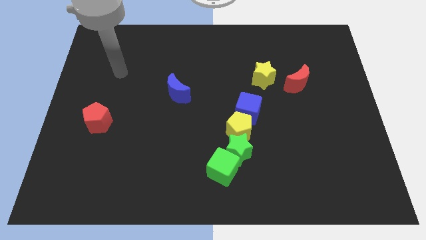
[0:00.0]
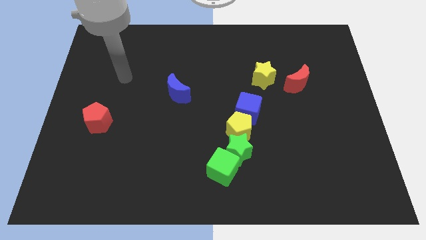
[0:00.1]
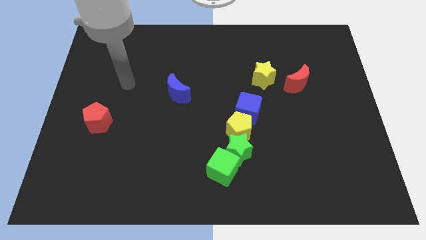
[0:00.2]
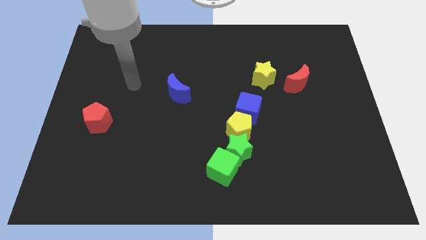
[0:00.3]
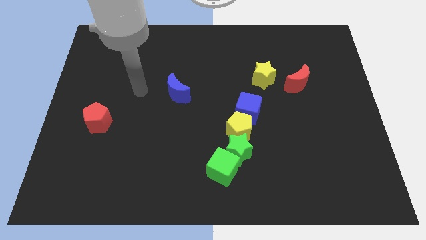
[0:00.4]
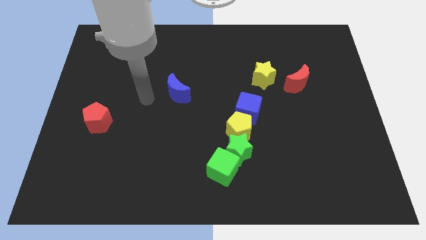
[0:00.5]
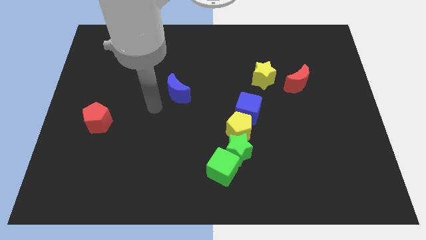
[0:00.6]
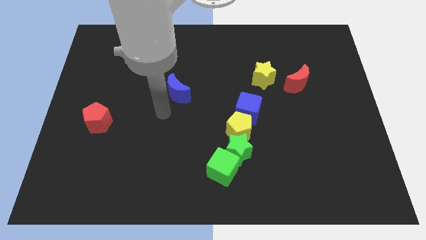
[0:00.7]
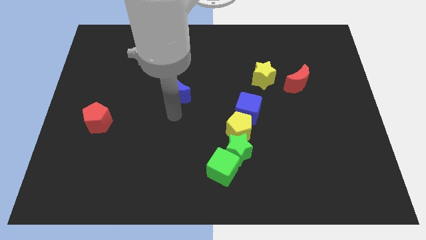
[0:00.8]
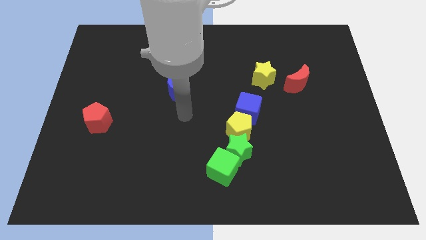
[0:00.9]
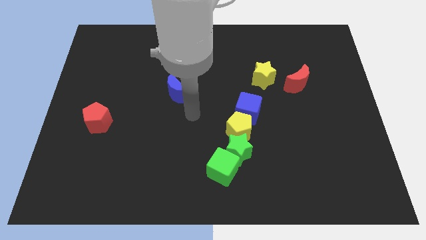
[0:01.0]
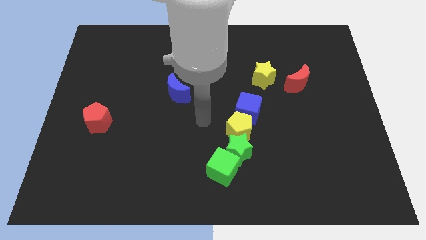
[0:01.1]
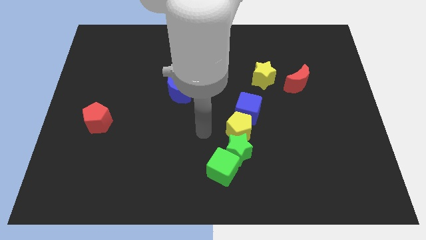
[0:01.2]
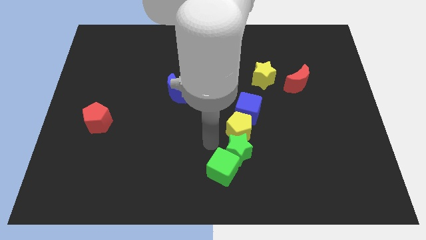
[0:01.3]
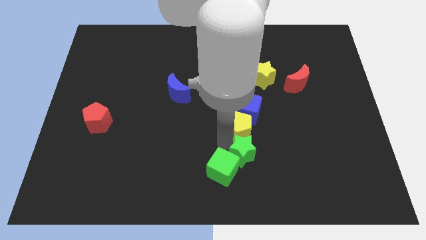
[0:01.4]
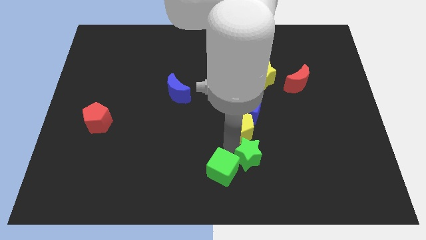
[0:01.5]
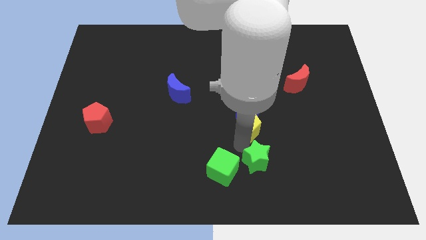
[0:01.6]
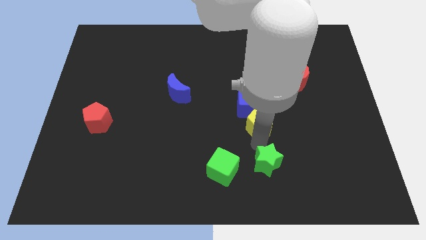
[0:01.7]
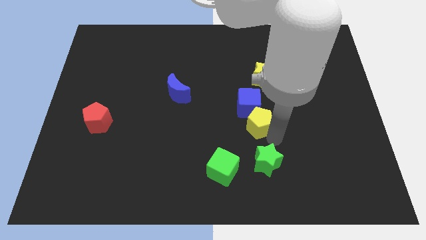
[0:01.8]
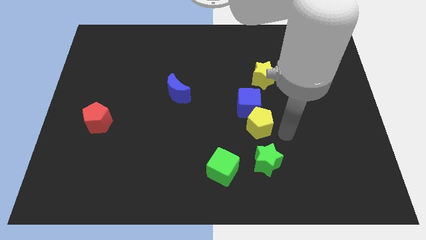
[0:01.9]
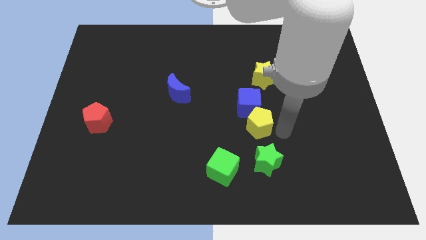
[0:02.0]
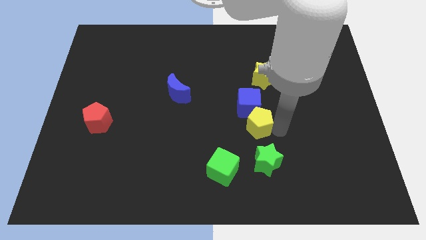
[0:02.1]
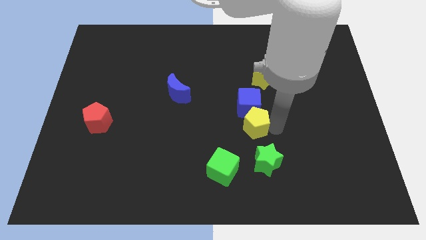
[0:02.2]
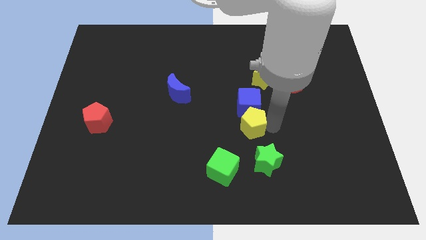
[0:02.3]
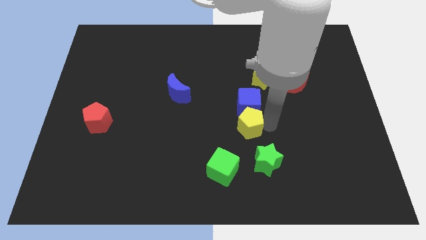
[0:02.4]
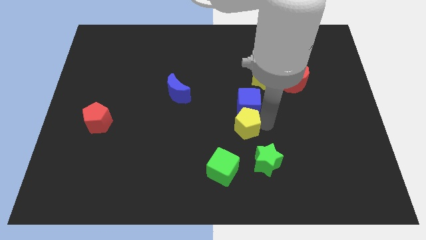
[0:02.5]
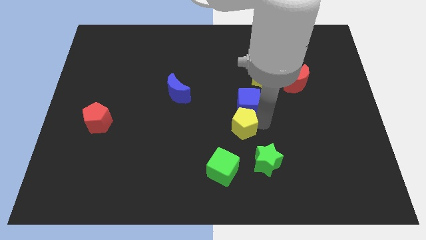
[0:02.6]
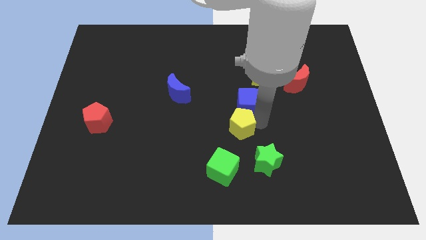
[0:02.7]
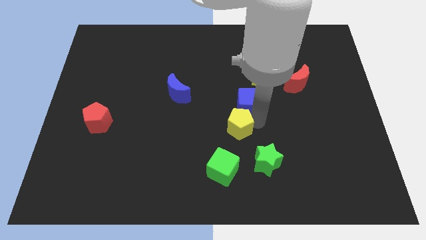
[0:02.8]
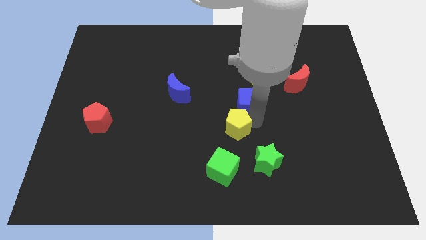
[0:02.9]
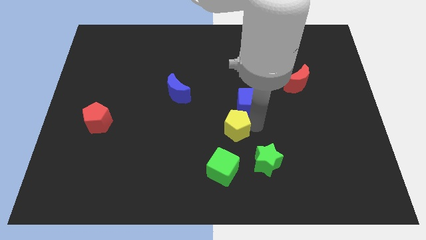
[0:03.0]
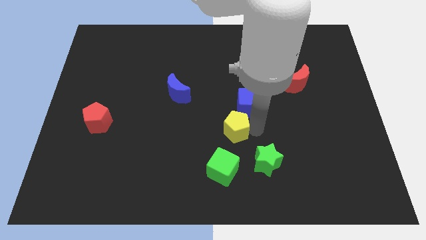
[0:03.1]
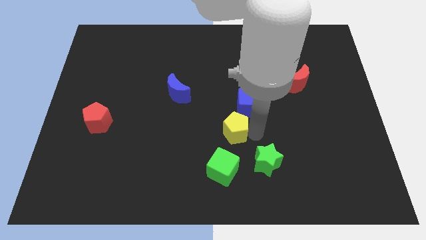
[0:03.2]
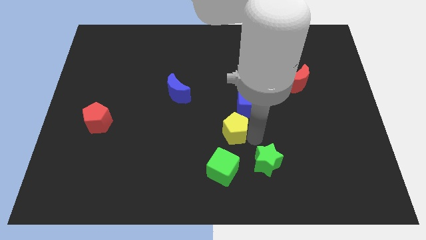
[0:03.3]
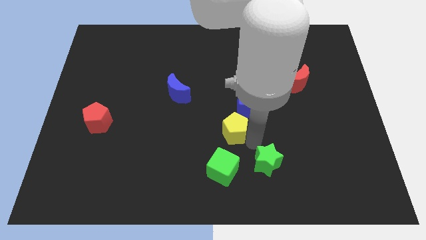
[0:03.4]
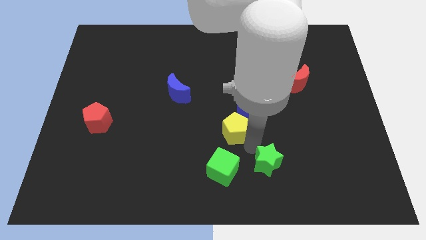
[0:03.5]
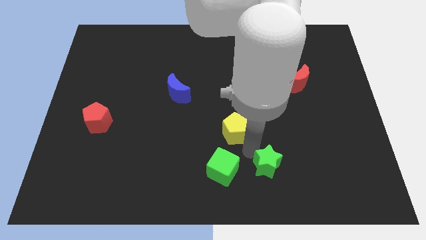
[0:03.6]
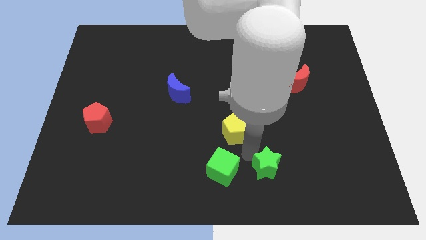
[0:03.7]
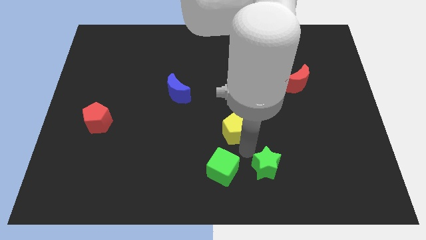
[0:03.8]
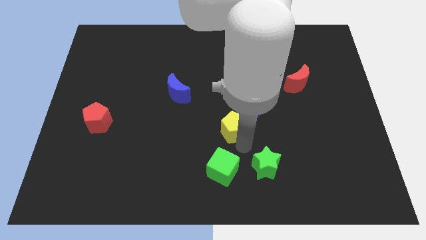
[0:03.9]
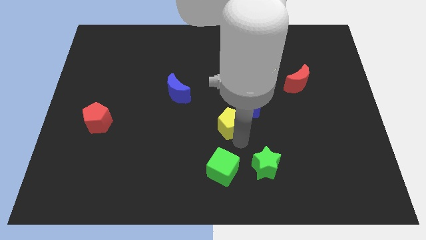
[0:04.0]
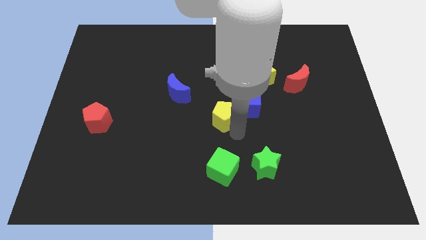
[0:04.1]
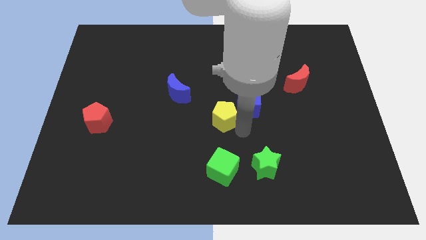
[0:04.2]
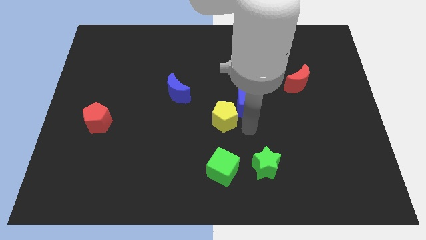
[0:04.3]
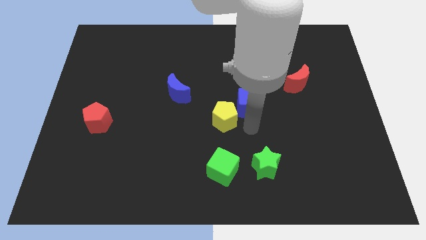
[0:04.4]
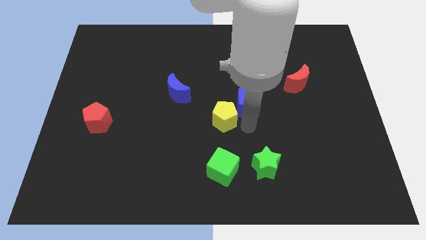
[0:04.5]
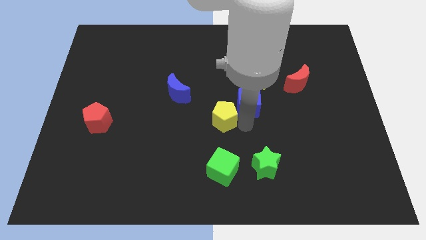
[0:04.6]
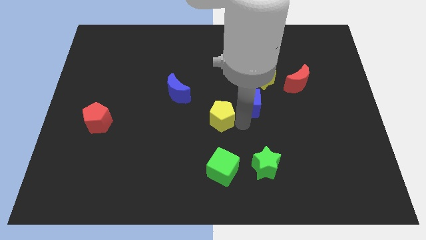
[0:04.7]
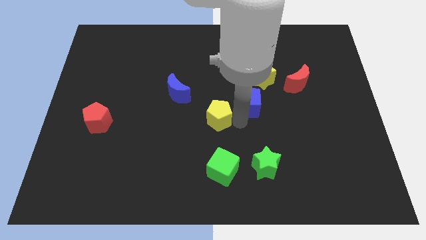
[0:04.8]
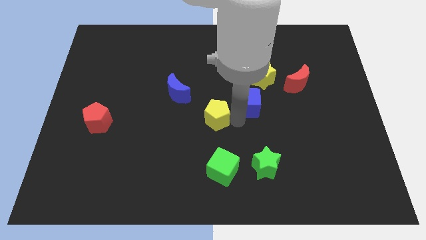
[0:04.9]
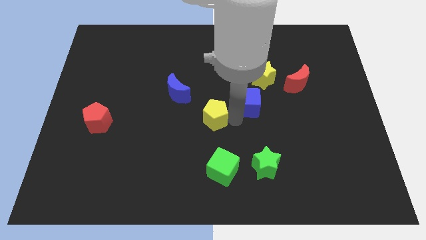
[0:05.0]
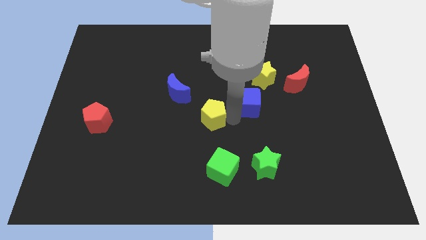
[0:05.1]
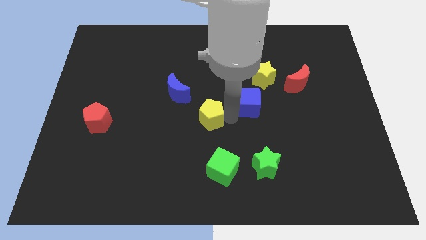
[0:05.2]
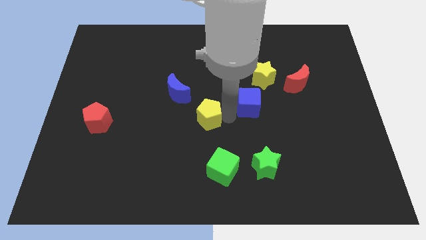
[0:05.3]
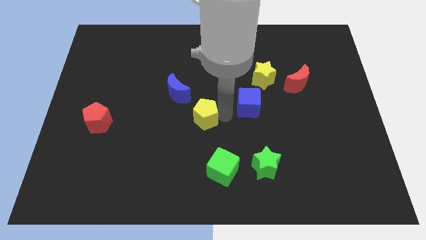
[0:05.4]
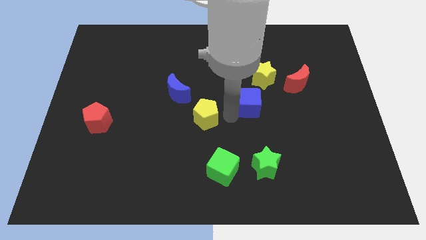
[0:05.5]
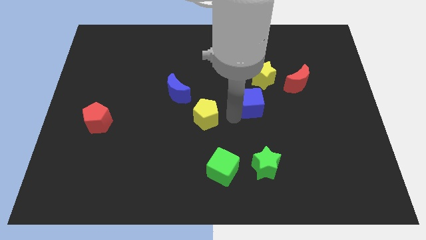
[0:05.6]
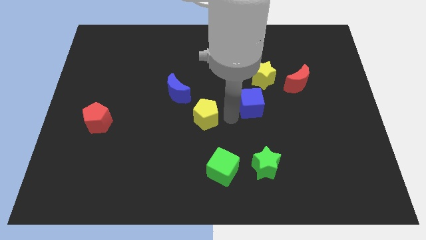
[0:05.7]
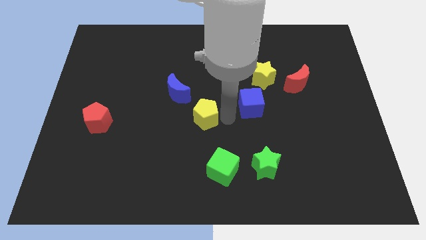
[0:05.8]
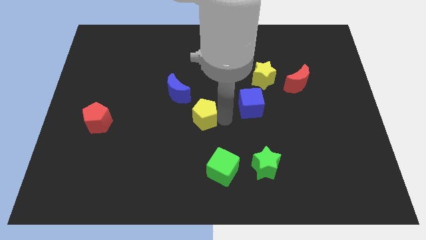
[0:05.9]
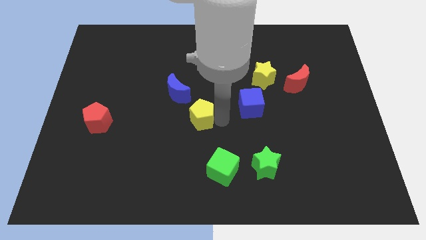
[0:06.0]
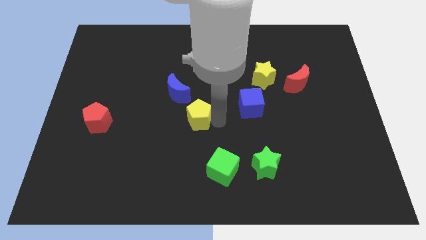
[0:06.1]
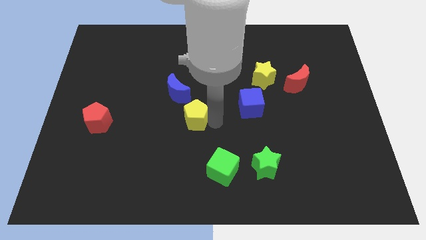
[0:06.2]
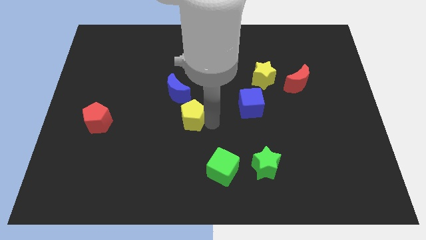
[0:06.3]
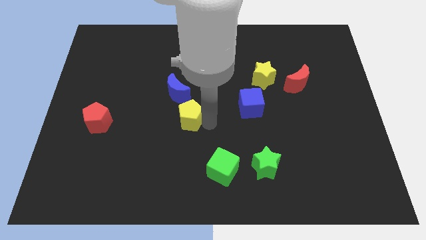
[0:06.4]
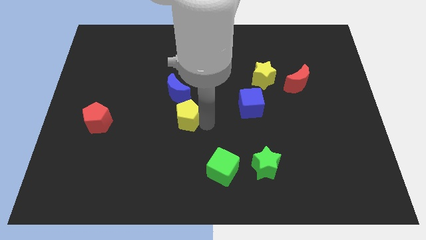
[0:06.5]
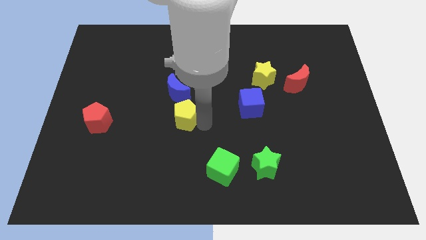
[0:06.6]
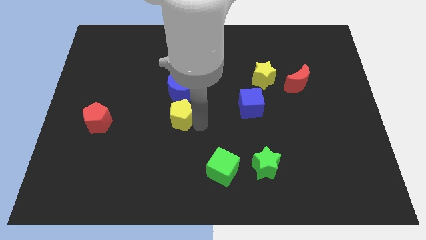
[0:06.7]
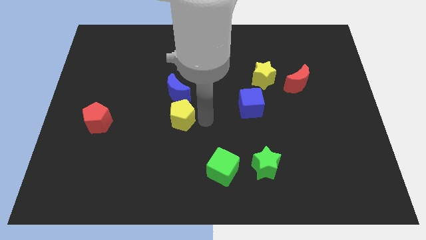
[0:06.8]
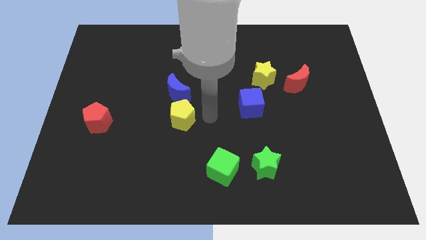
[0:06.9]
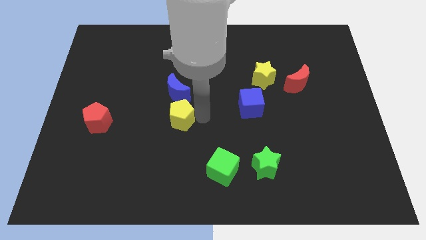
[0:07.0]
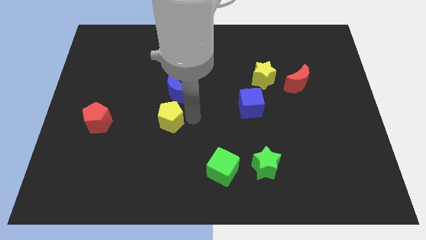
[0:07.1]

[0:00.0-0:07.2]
move the yellow pentagon to the right of the red pentagon

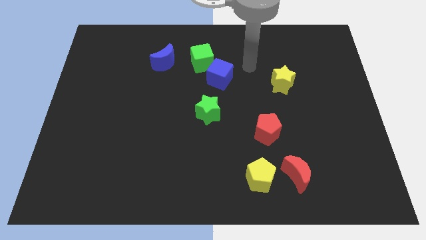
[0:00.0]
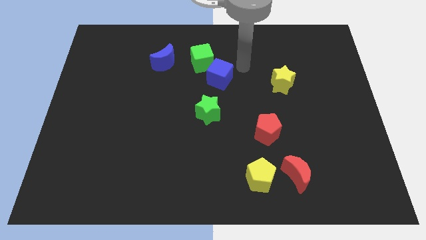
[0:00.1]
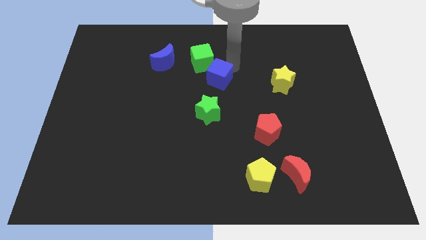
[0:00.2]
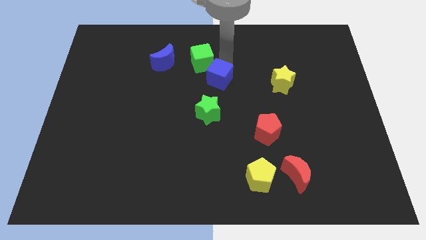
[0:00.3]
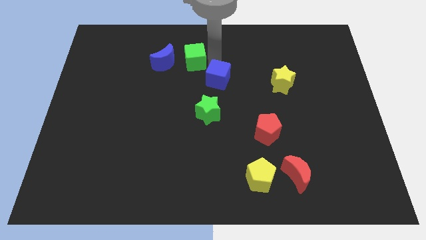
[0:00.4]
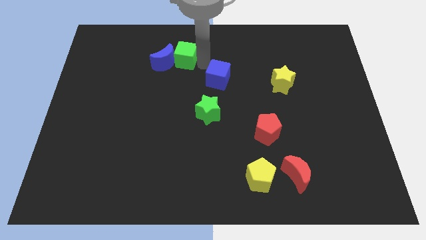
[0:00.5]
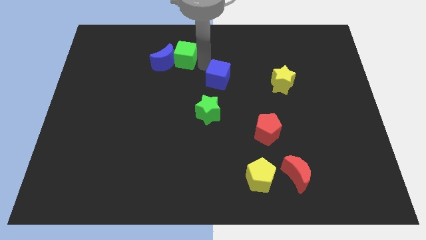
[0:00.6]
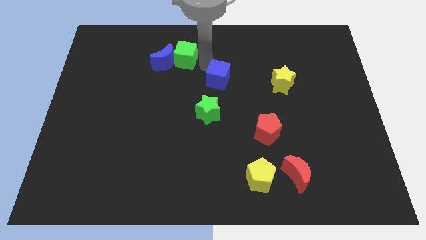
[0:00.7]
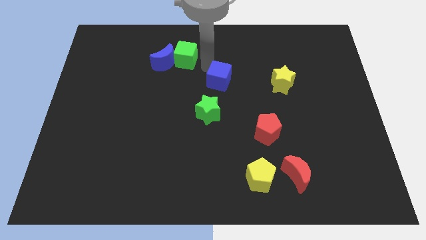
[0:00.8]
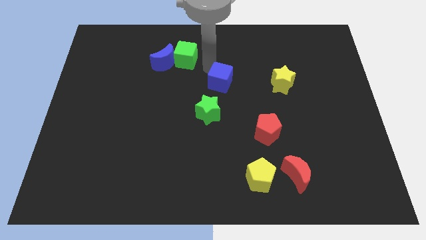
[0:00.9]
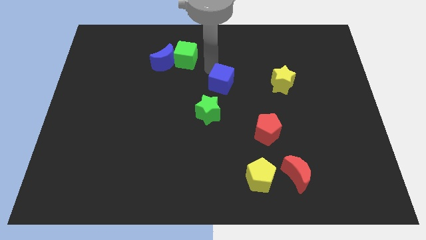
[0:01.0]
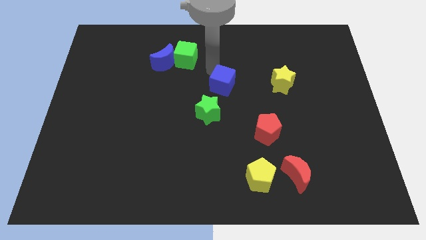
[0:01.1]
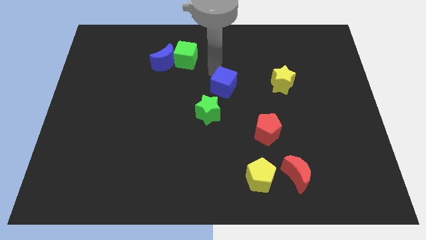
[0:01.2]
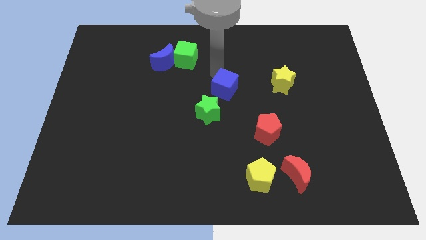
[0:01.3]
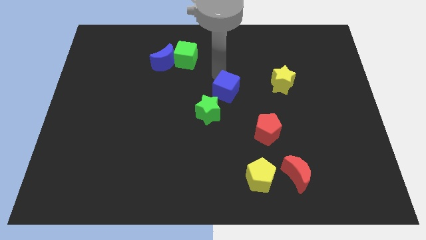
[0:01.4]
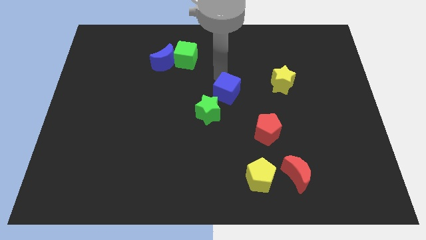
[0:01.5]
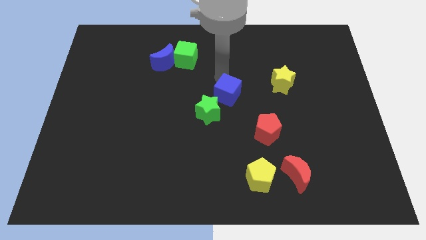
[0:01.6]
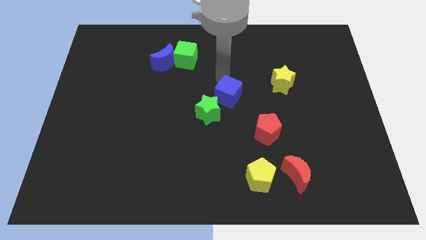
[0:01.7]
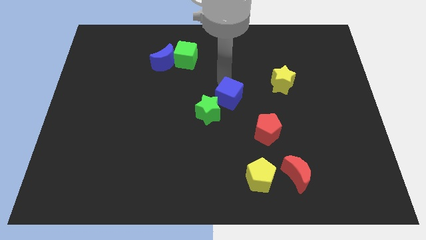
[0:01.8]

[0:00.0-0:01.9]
put the blue cube diagonally up and to the left of the red pentagon
